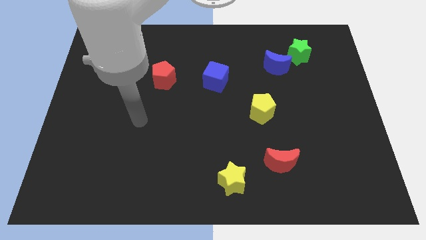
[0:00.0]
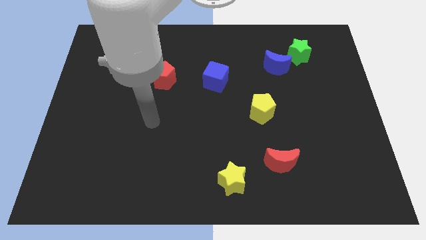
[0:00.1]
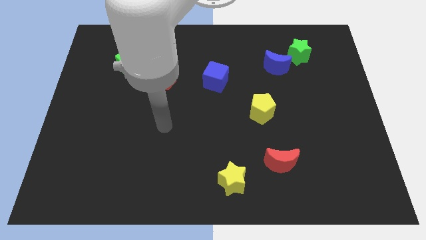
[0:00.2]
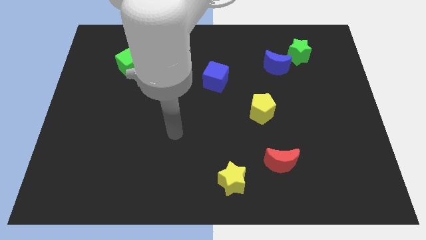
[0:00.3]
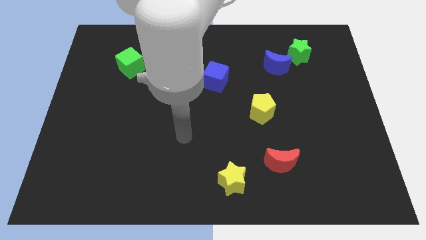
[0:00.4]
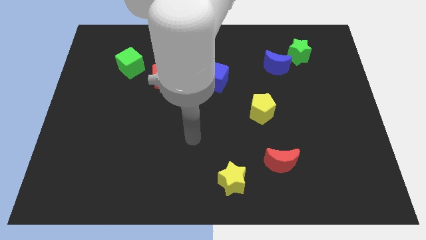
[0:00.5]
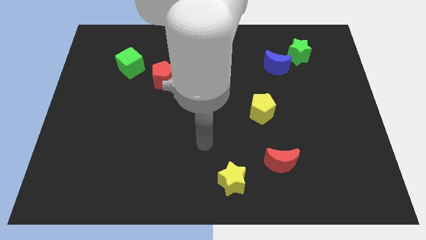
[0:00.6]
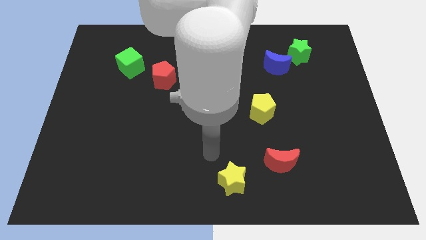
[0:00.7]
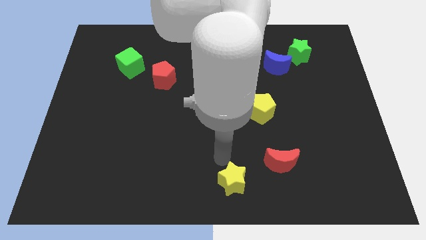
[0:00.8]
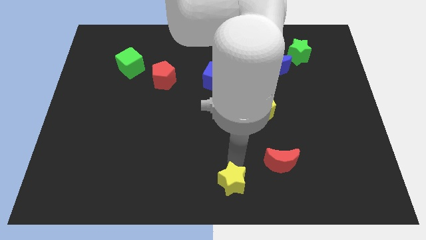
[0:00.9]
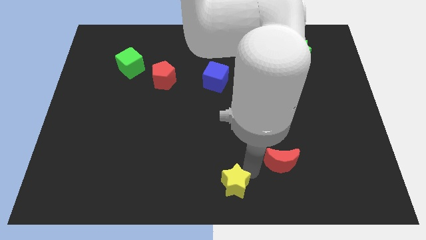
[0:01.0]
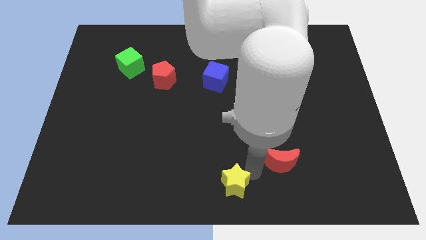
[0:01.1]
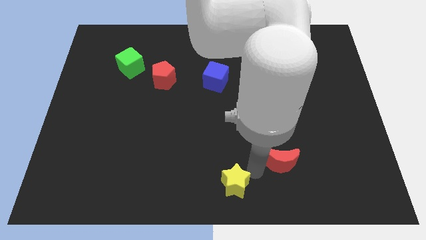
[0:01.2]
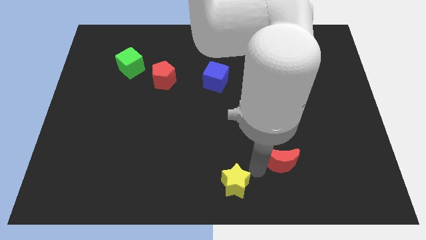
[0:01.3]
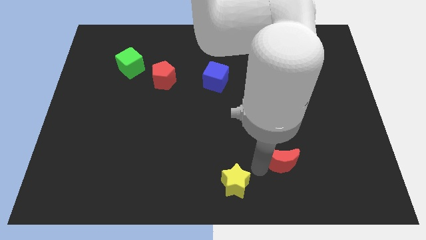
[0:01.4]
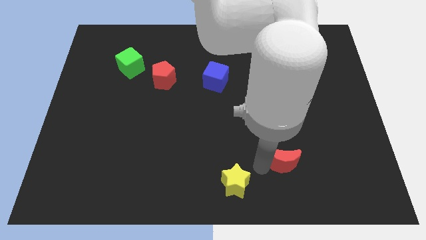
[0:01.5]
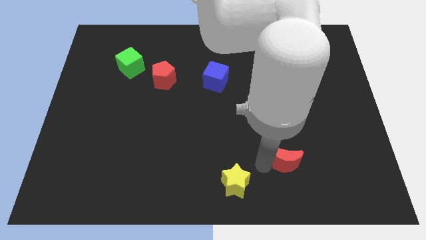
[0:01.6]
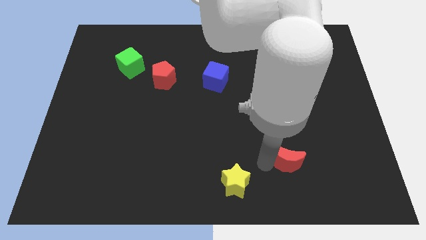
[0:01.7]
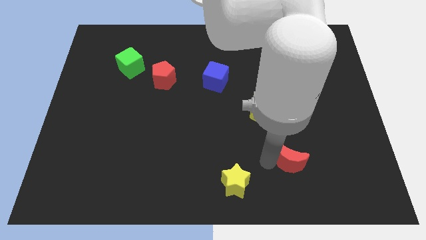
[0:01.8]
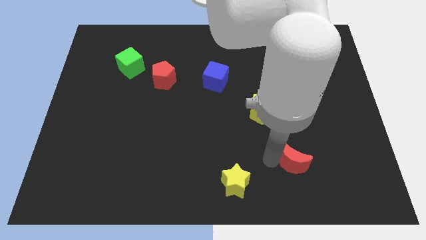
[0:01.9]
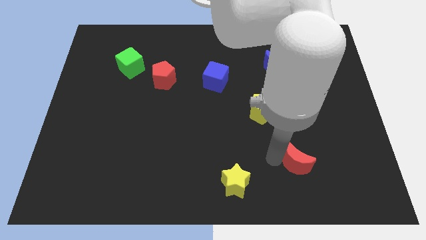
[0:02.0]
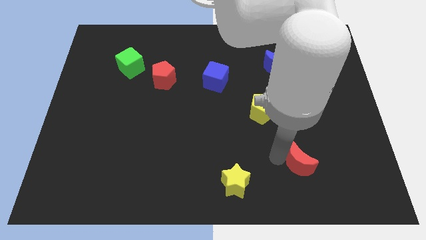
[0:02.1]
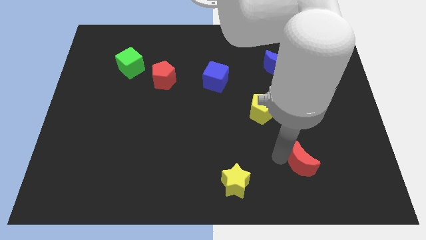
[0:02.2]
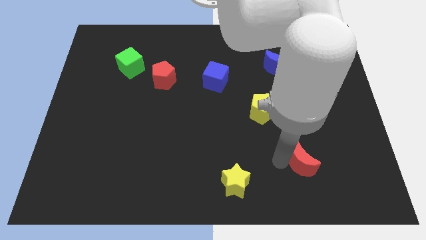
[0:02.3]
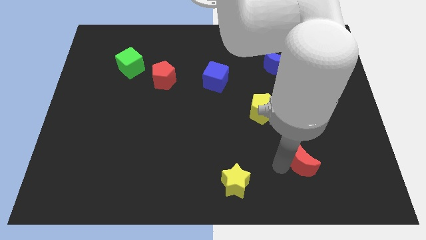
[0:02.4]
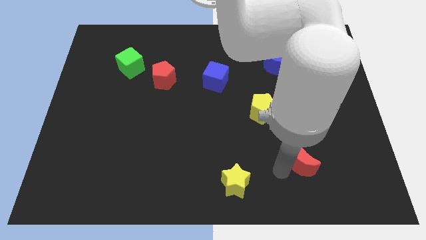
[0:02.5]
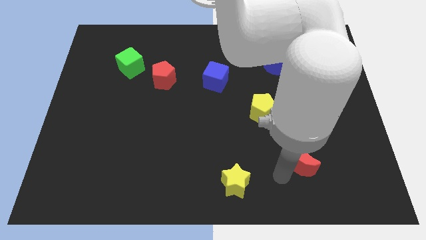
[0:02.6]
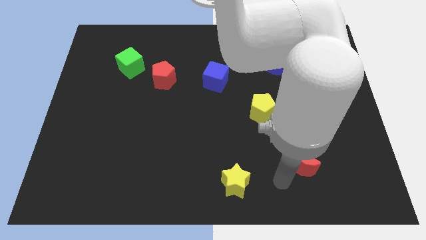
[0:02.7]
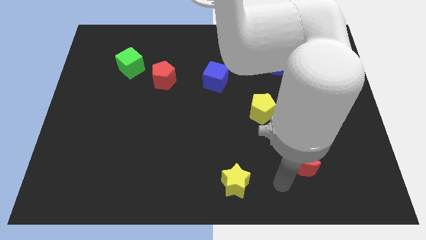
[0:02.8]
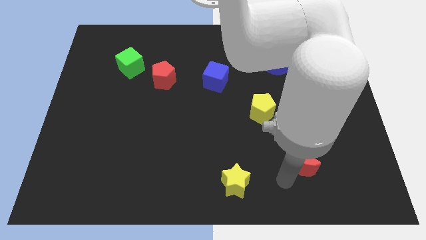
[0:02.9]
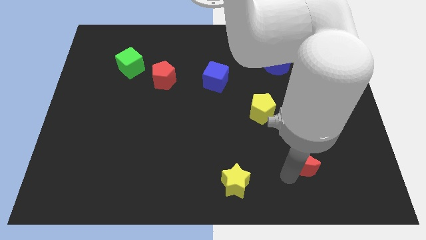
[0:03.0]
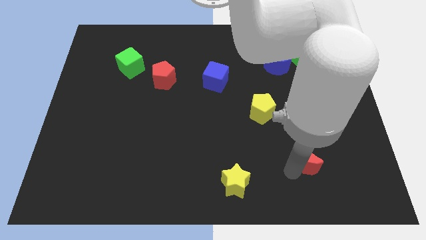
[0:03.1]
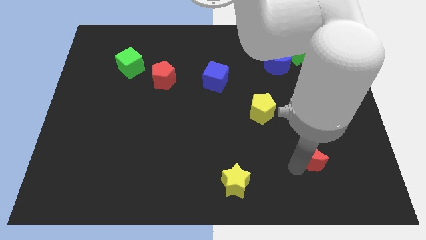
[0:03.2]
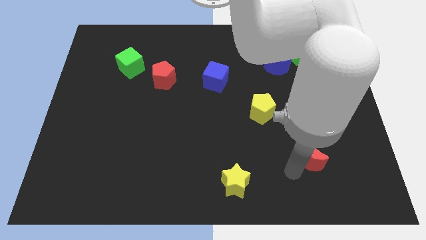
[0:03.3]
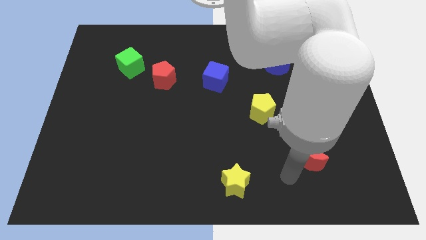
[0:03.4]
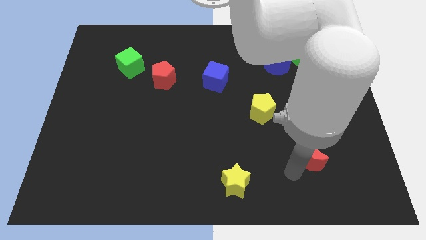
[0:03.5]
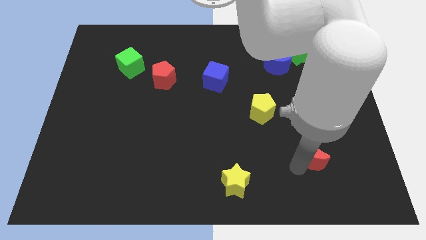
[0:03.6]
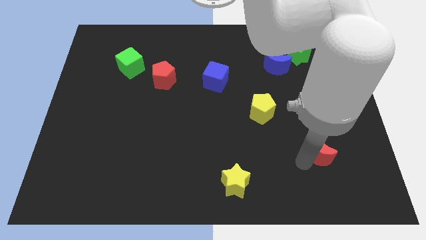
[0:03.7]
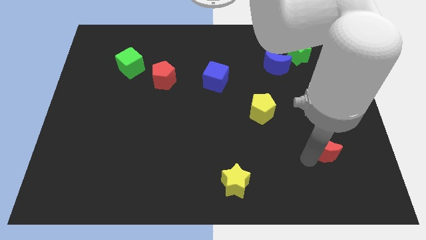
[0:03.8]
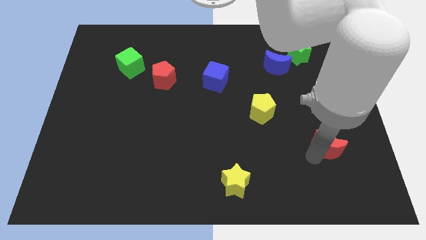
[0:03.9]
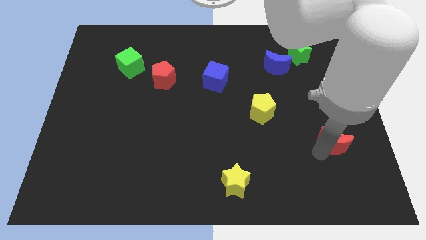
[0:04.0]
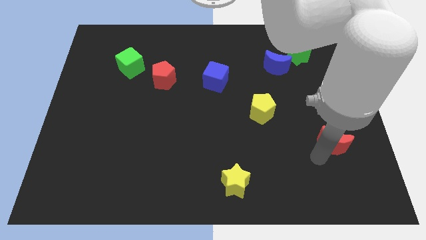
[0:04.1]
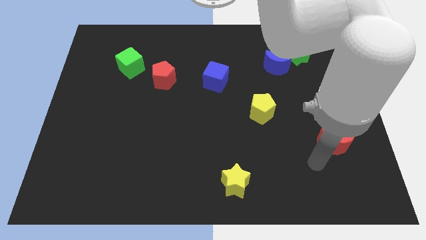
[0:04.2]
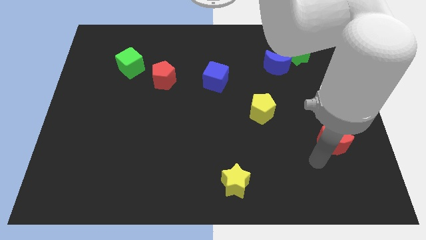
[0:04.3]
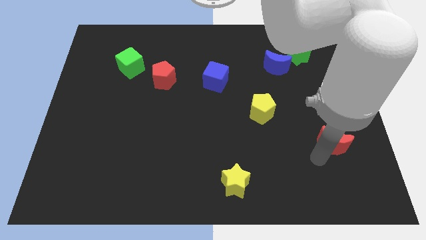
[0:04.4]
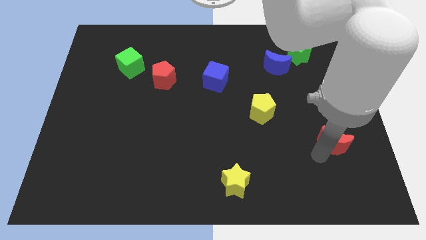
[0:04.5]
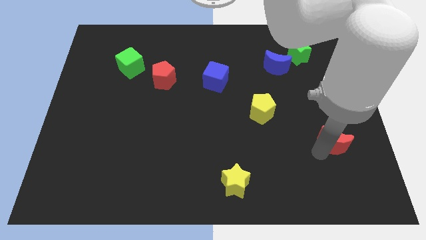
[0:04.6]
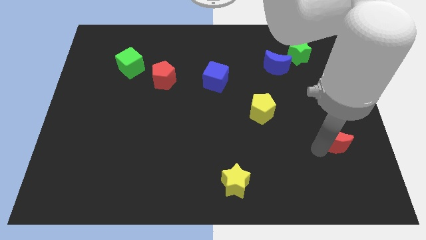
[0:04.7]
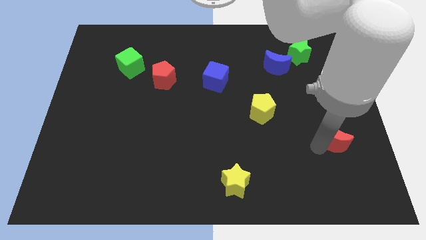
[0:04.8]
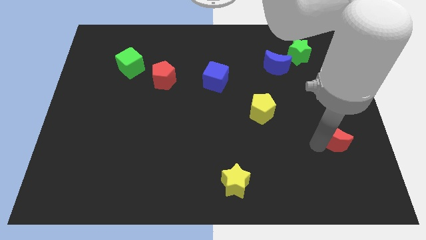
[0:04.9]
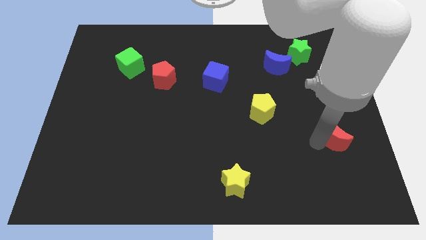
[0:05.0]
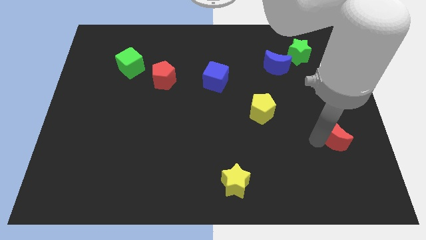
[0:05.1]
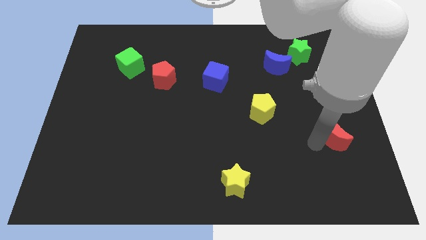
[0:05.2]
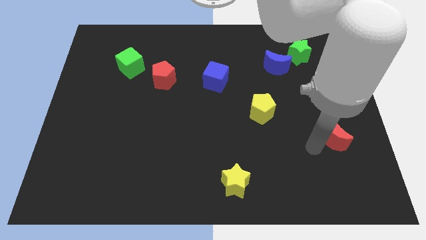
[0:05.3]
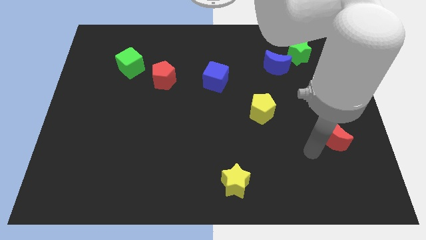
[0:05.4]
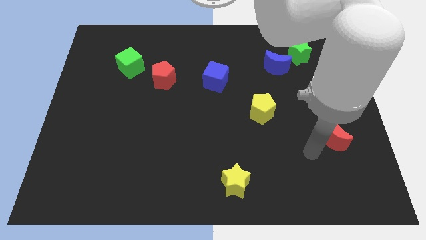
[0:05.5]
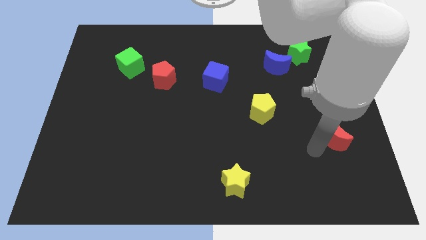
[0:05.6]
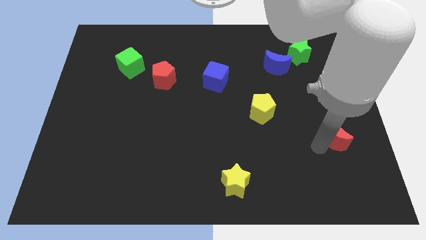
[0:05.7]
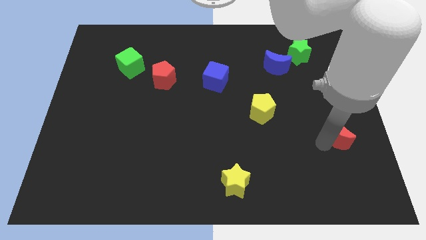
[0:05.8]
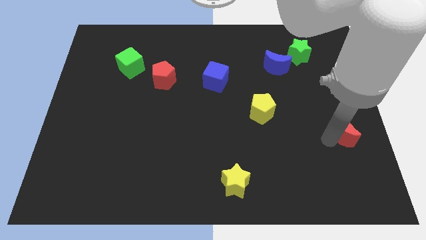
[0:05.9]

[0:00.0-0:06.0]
move the red moon to the right side of the board

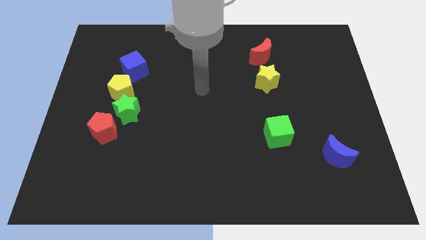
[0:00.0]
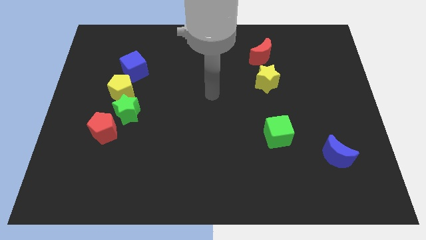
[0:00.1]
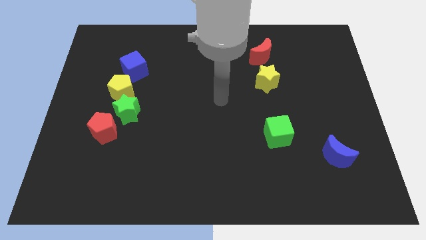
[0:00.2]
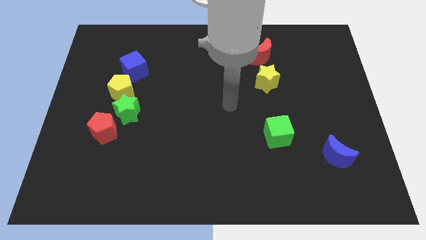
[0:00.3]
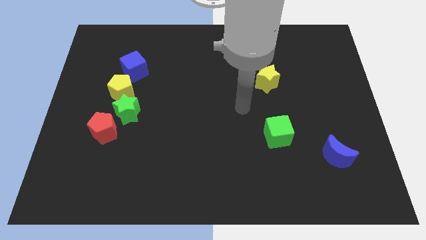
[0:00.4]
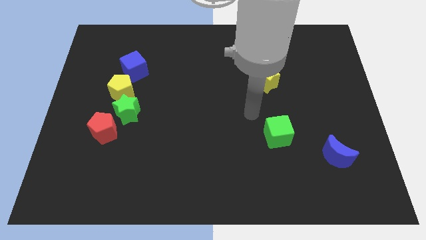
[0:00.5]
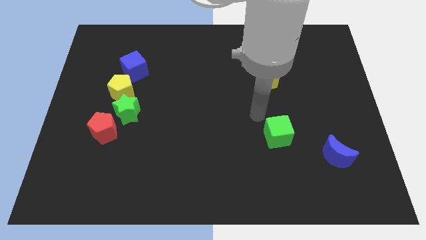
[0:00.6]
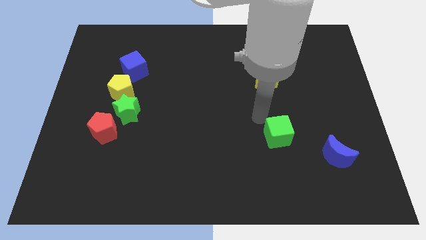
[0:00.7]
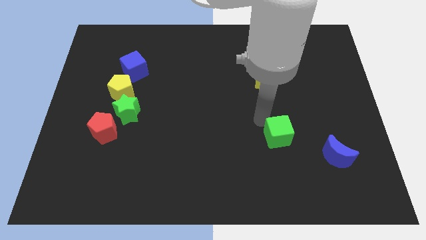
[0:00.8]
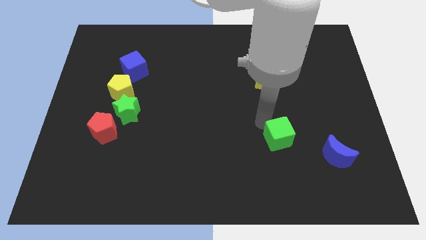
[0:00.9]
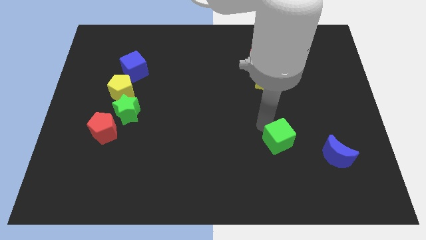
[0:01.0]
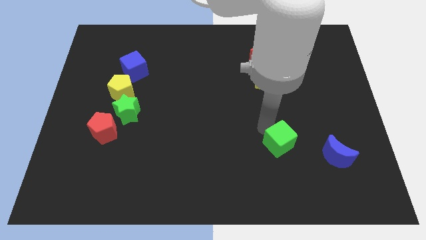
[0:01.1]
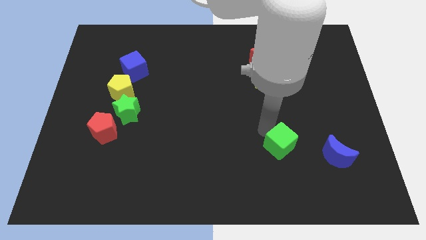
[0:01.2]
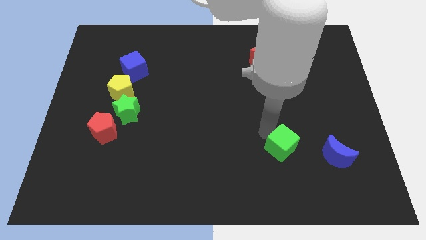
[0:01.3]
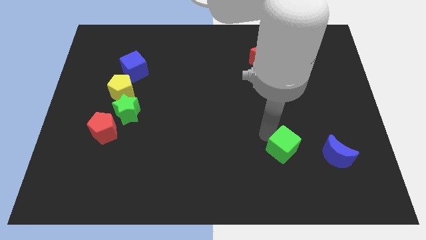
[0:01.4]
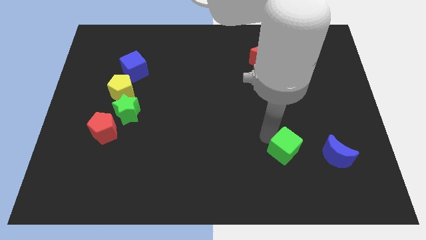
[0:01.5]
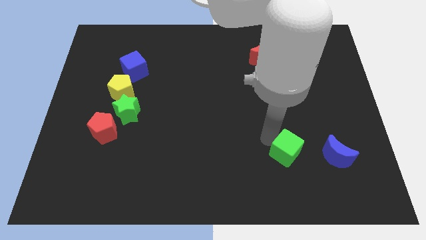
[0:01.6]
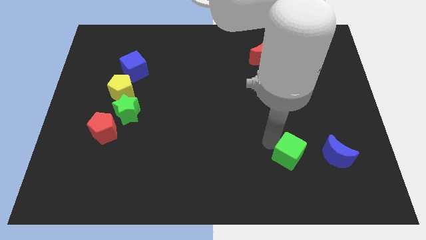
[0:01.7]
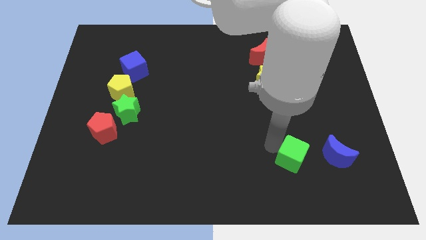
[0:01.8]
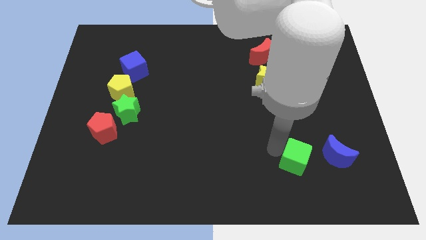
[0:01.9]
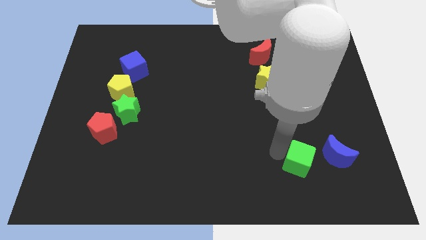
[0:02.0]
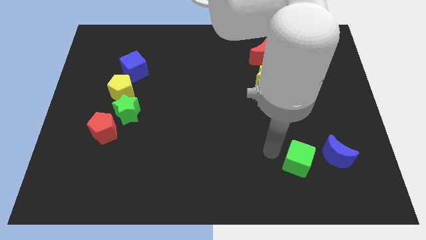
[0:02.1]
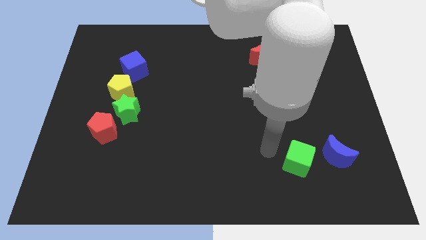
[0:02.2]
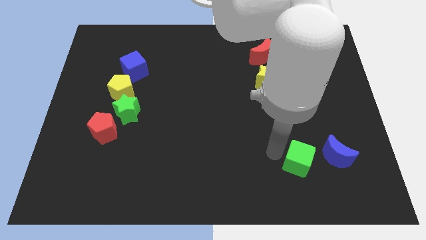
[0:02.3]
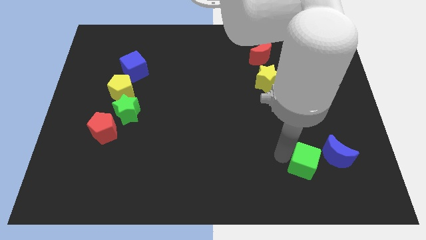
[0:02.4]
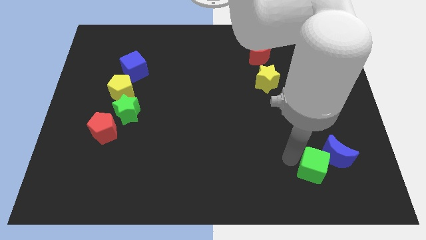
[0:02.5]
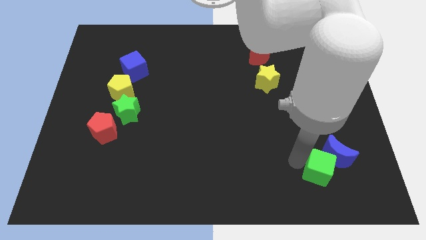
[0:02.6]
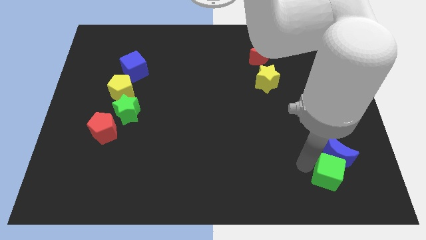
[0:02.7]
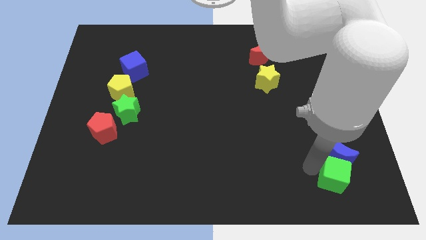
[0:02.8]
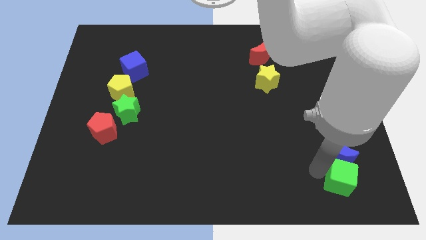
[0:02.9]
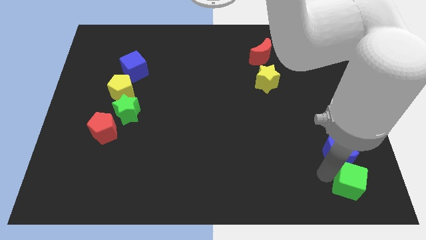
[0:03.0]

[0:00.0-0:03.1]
put the green cube to the bottom right corner
